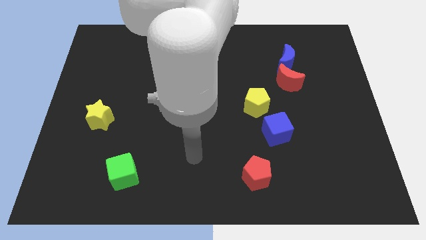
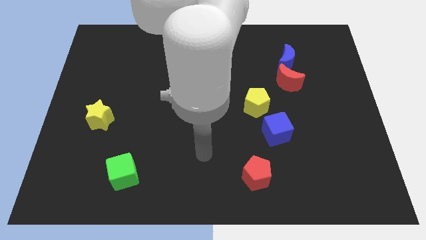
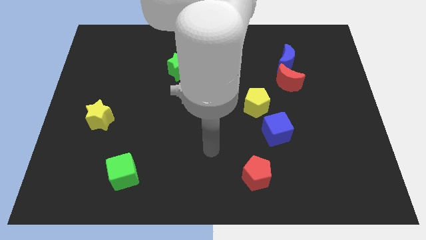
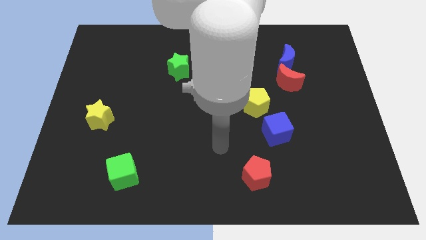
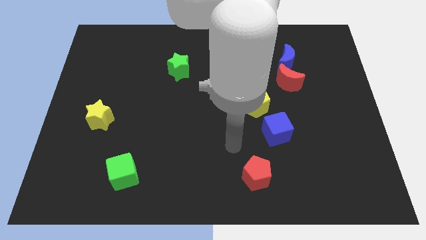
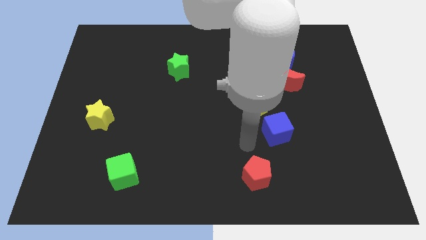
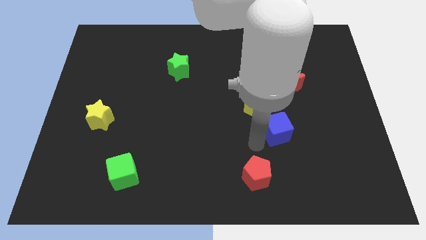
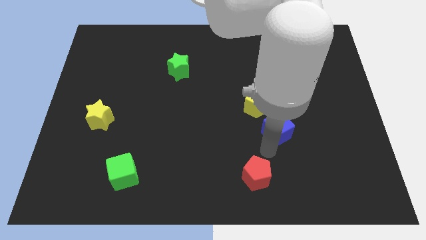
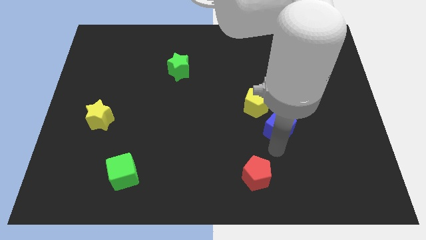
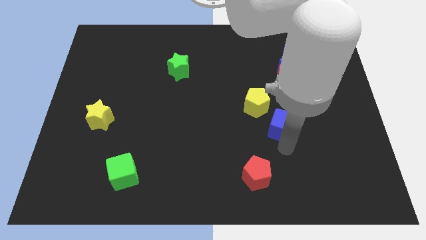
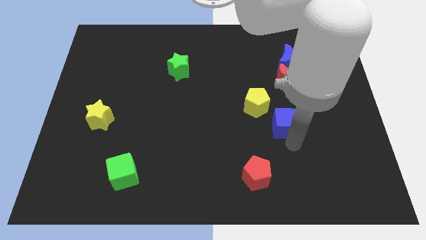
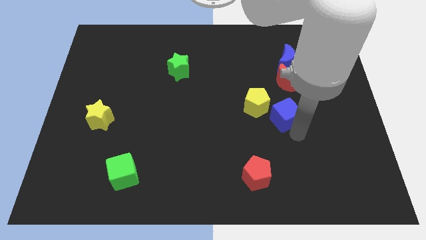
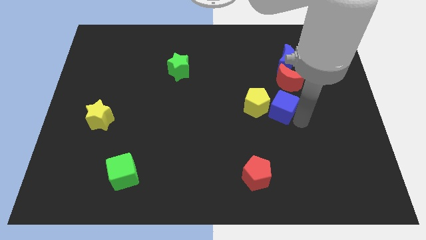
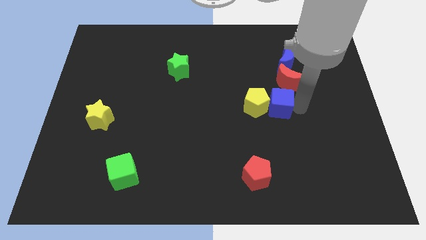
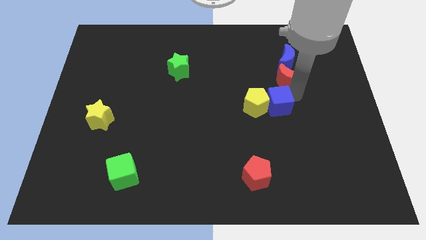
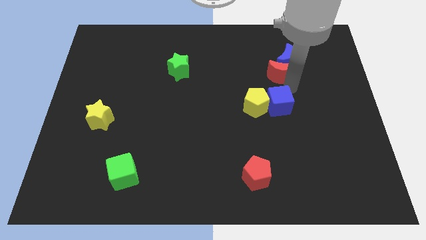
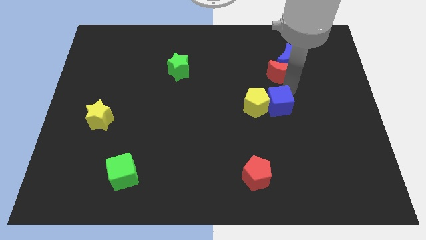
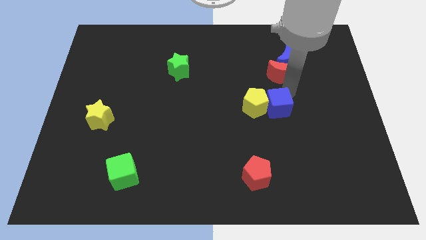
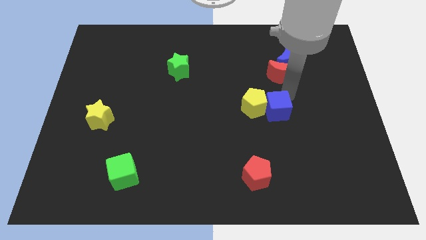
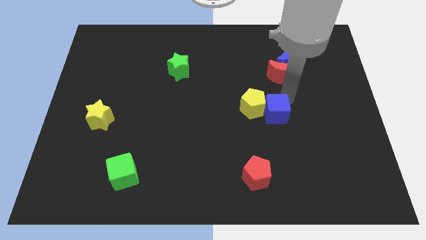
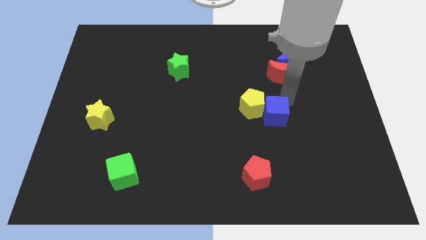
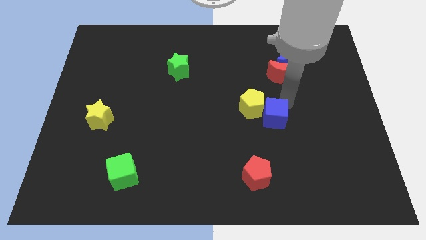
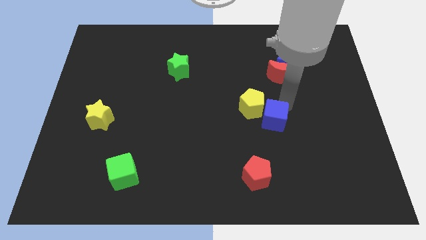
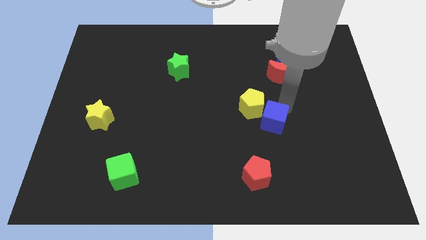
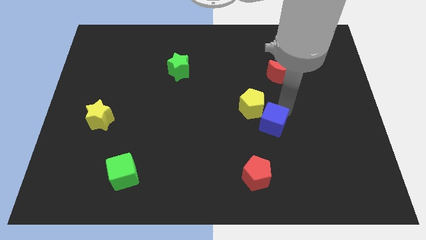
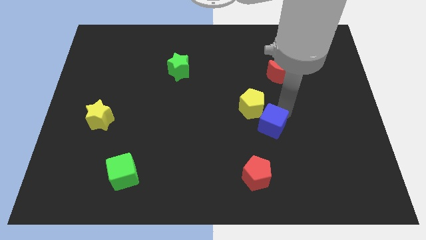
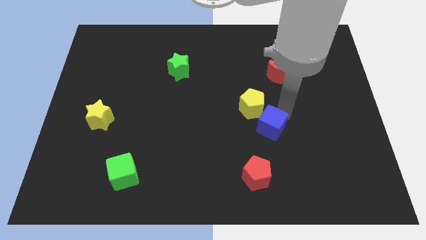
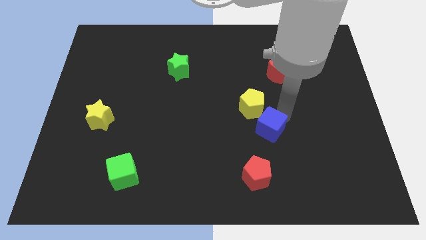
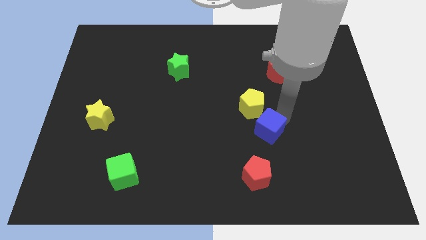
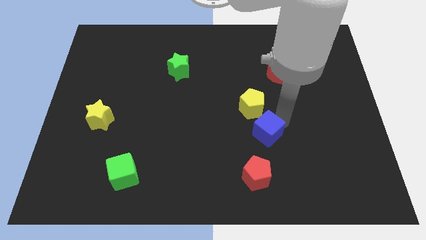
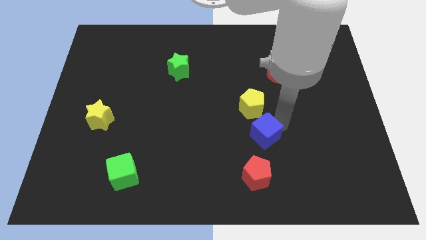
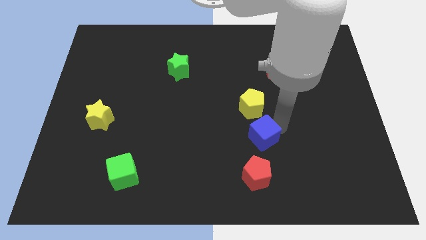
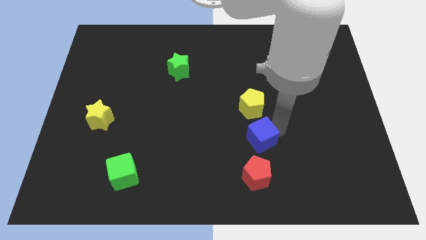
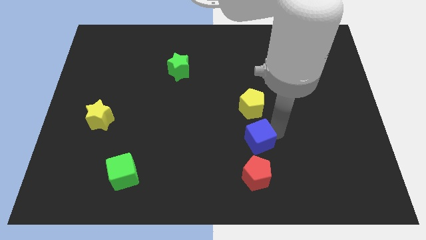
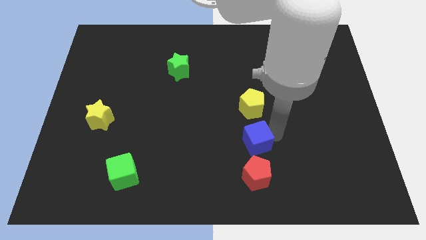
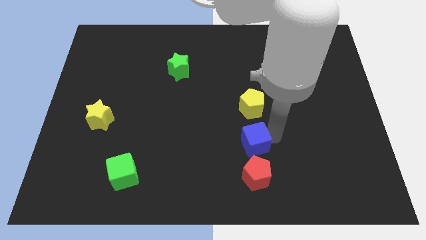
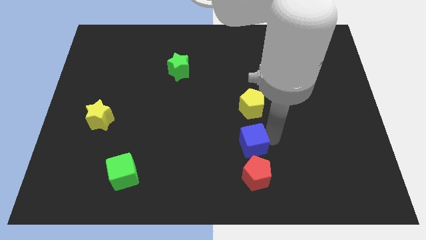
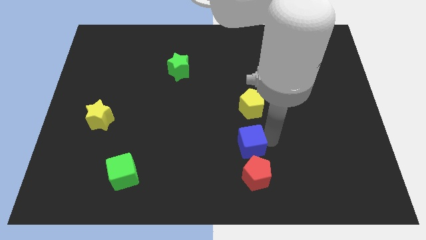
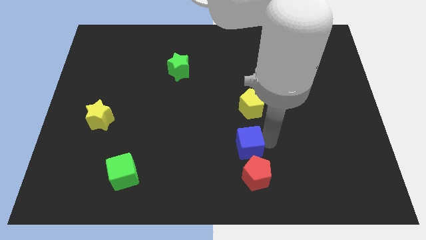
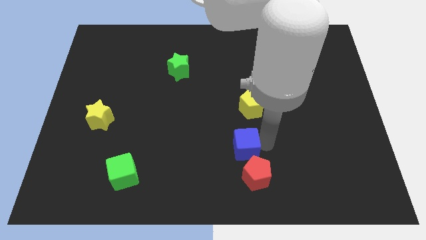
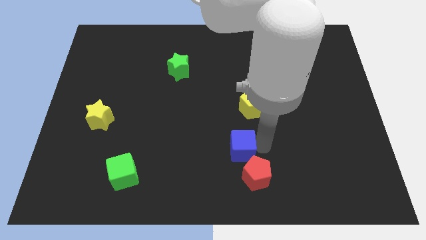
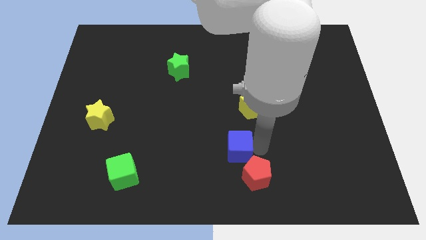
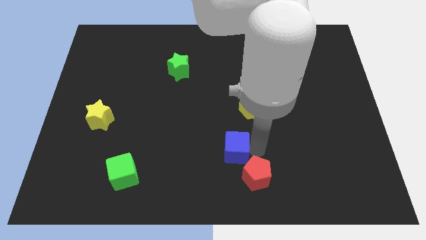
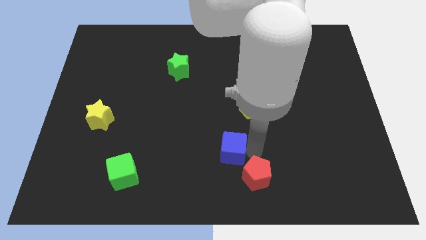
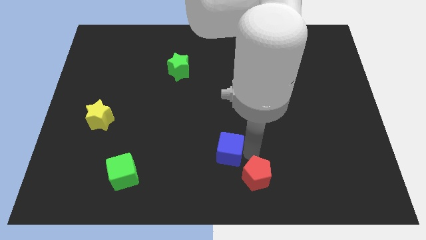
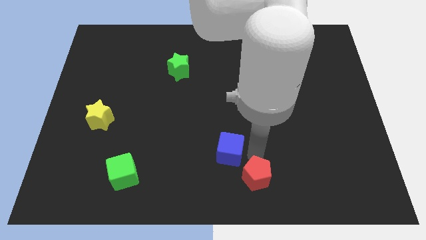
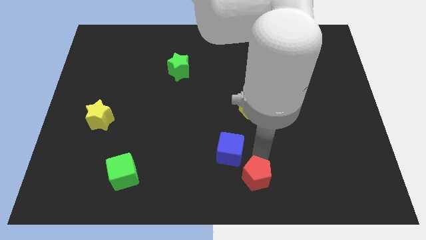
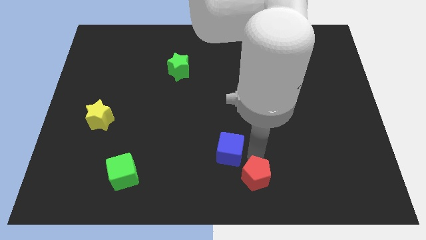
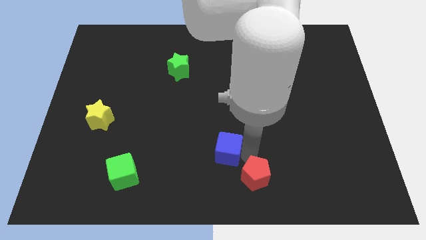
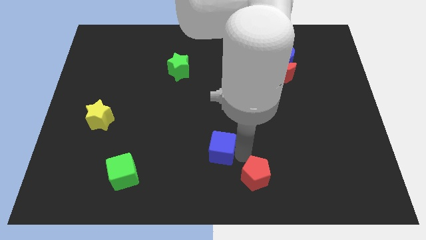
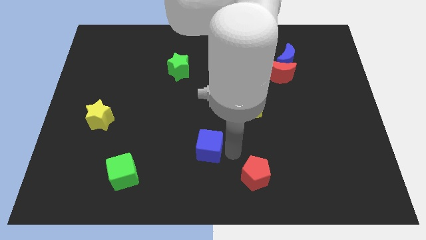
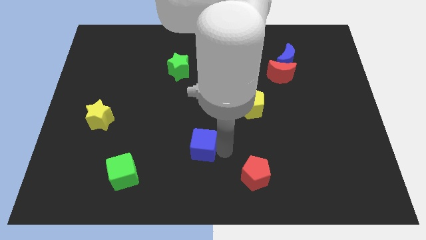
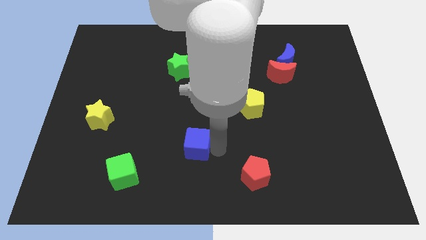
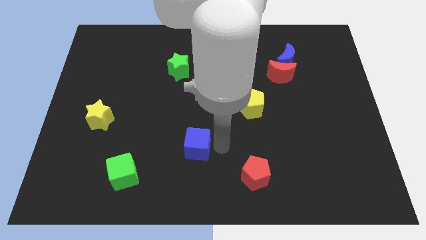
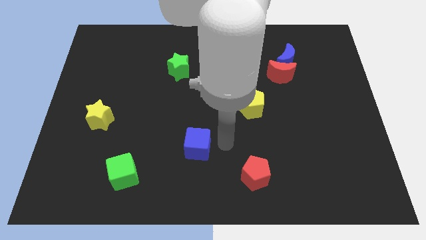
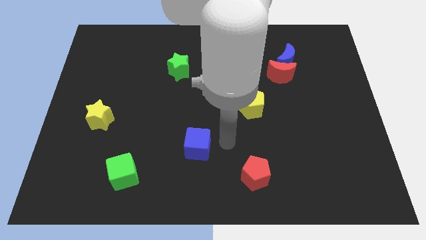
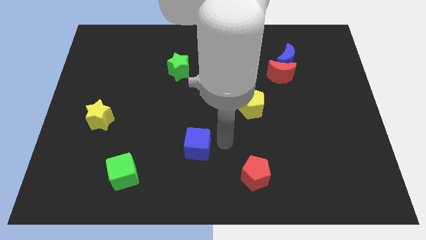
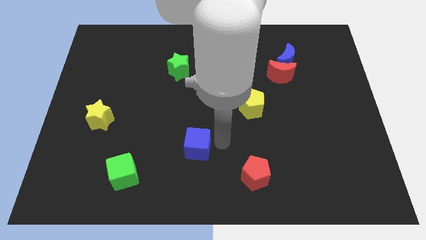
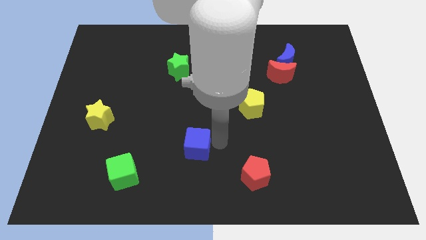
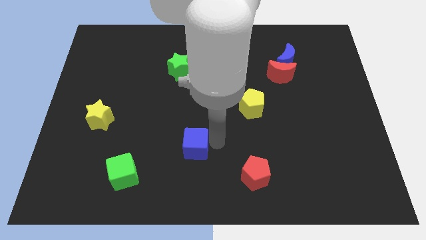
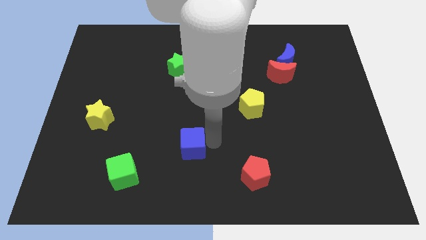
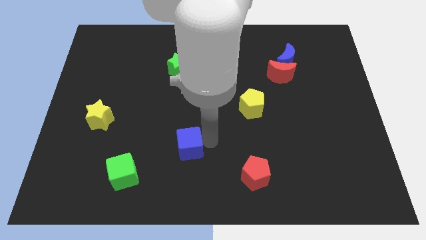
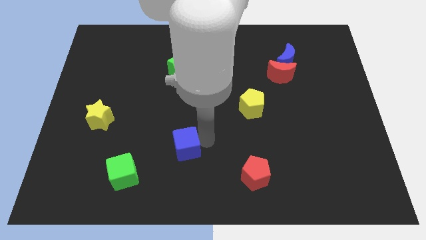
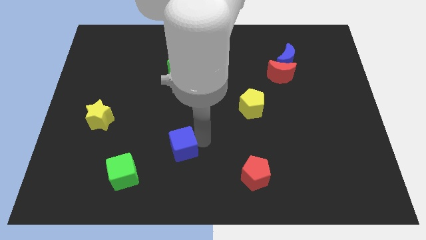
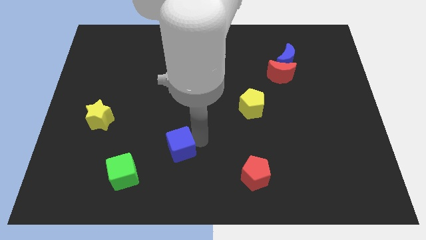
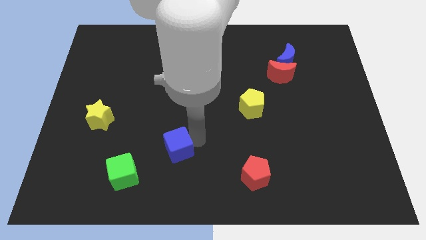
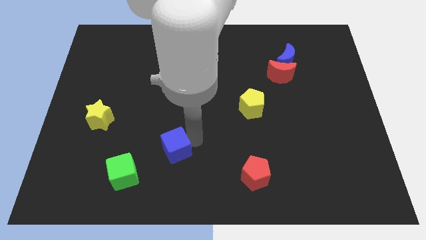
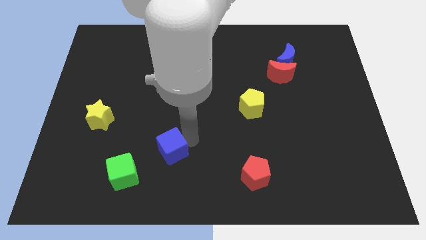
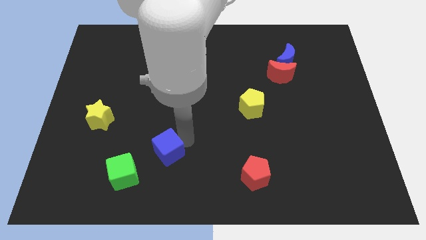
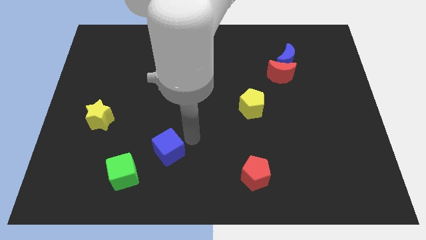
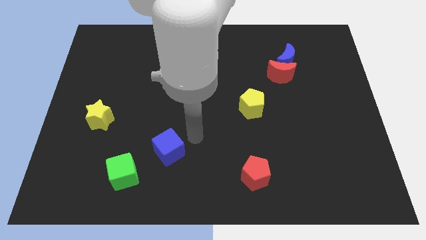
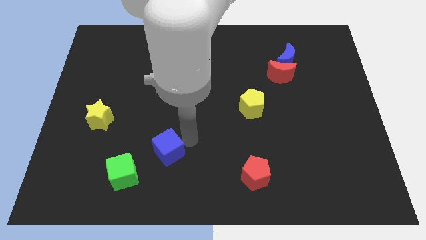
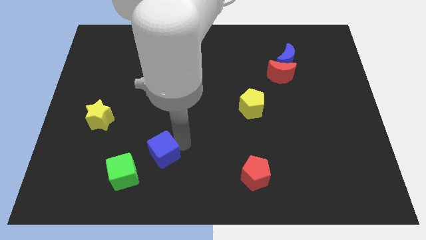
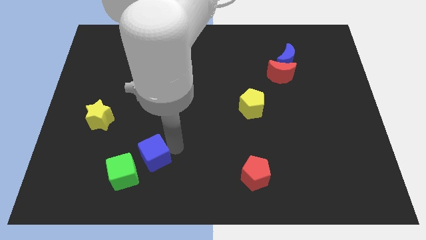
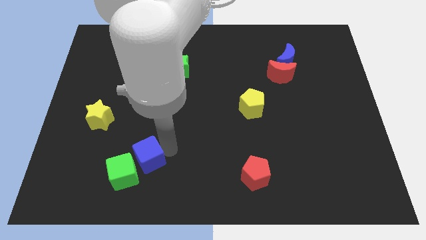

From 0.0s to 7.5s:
put the blue cube next to the green cube
